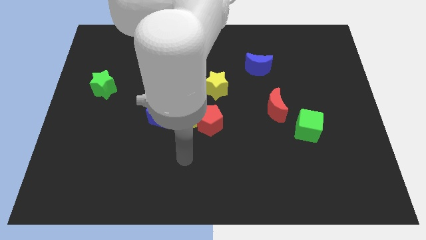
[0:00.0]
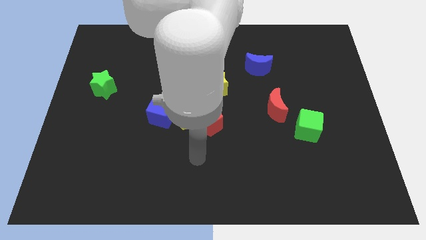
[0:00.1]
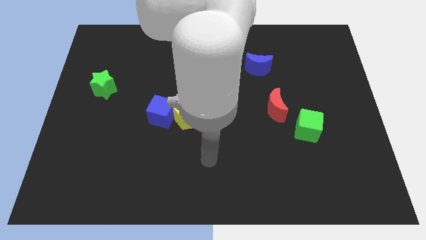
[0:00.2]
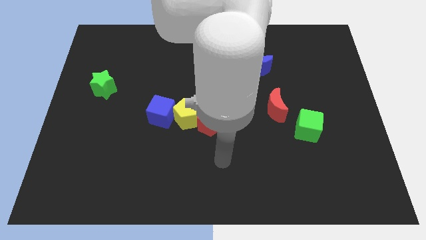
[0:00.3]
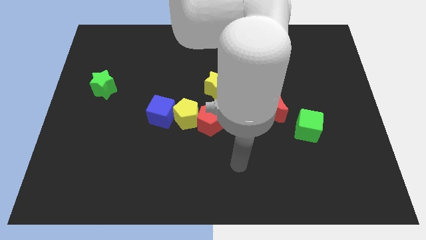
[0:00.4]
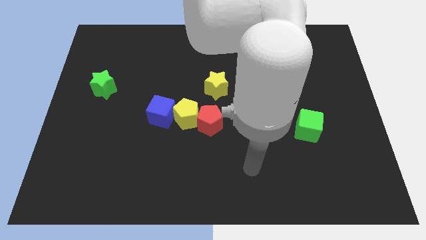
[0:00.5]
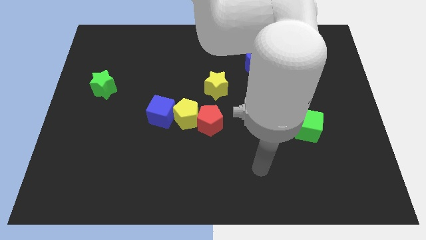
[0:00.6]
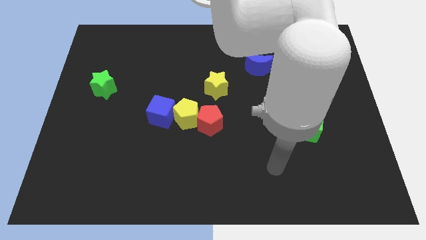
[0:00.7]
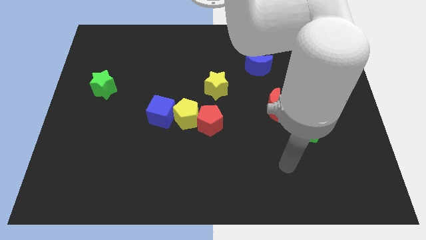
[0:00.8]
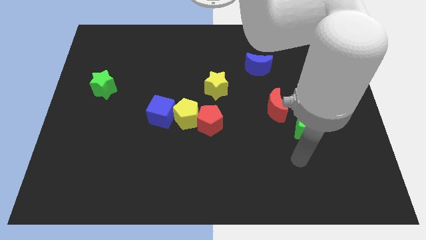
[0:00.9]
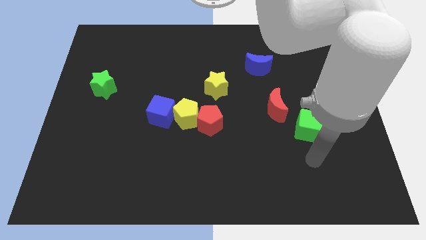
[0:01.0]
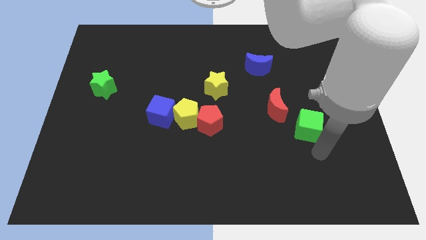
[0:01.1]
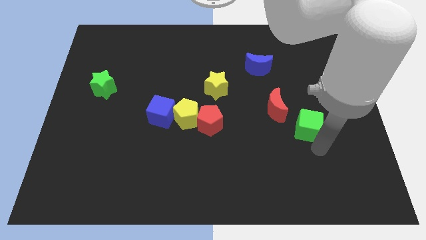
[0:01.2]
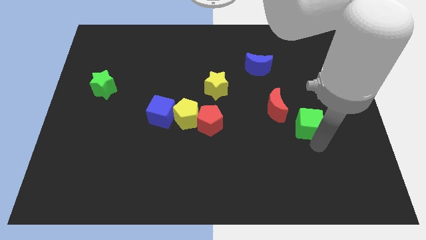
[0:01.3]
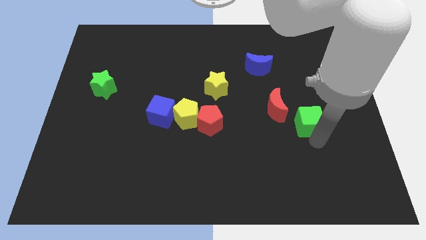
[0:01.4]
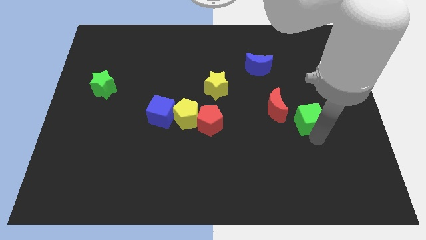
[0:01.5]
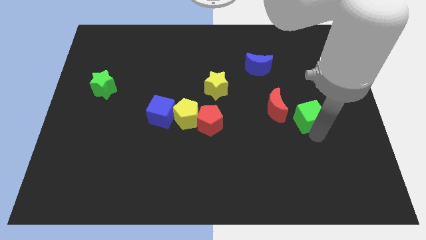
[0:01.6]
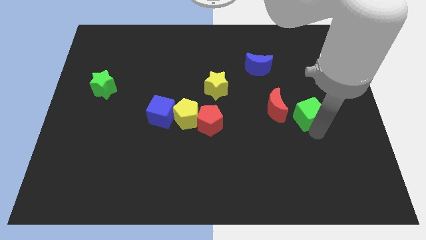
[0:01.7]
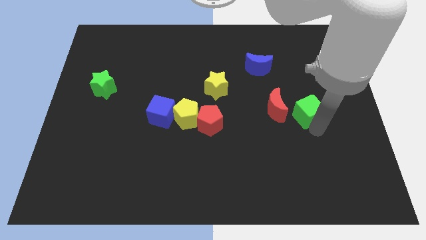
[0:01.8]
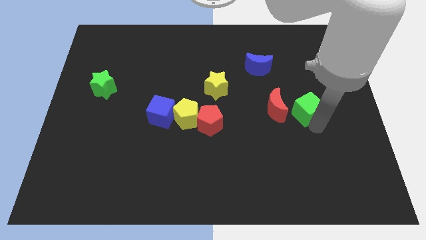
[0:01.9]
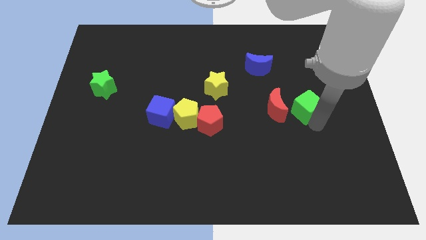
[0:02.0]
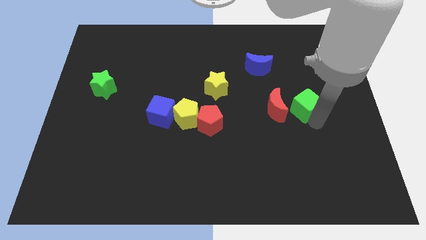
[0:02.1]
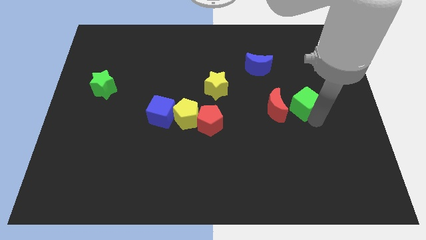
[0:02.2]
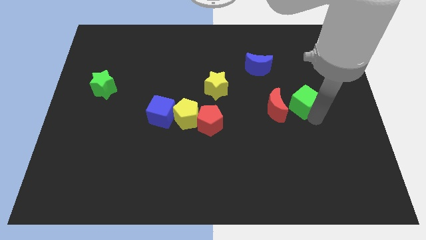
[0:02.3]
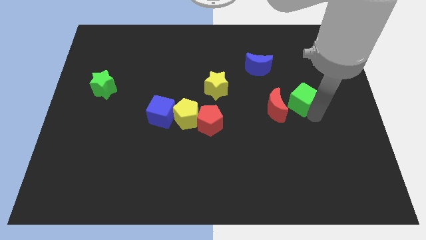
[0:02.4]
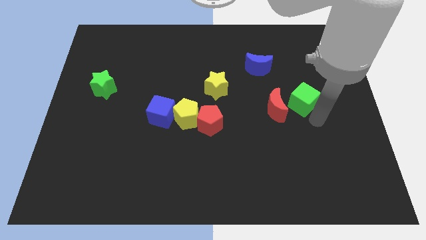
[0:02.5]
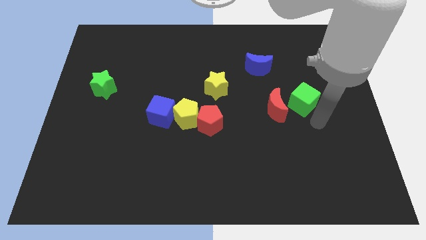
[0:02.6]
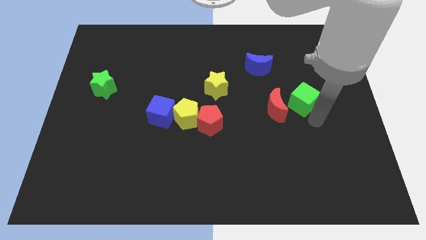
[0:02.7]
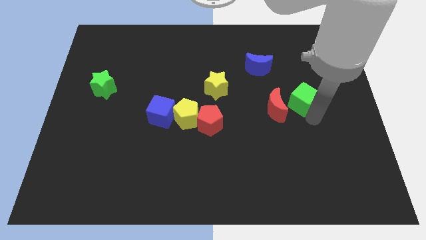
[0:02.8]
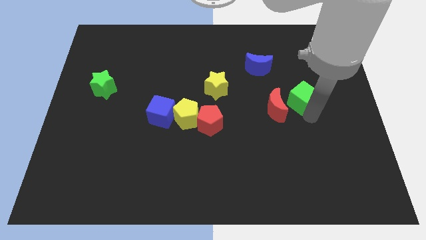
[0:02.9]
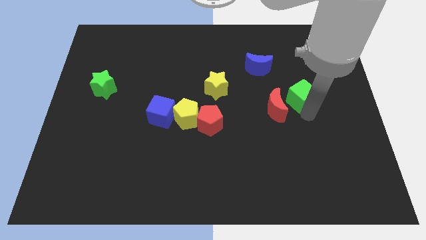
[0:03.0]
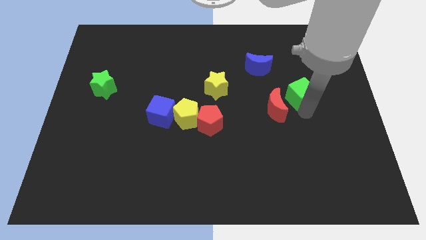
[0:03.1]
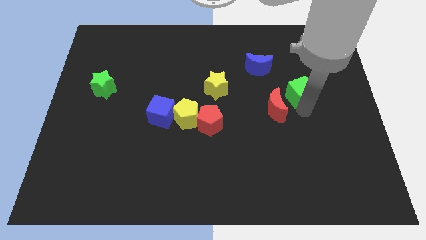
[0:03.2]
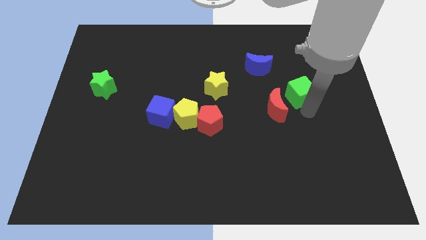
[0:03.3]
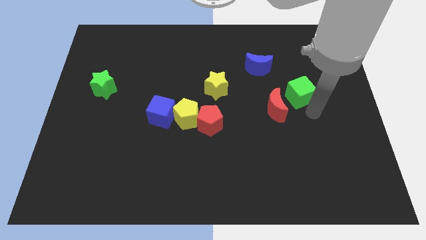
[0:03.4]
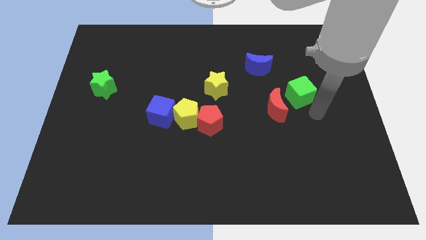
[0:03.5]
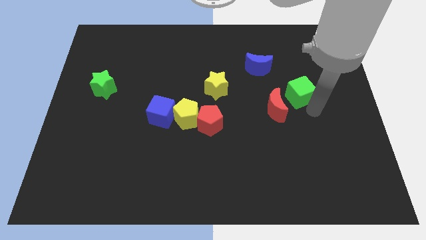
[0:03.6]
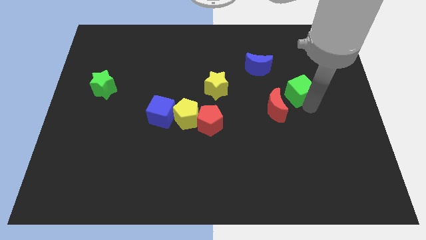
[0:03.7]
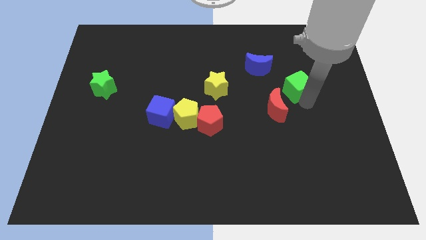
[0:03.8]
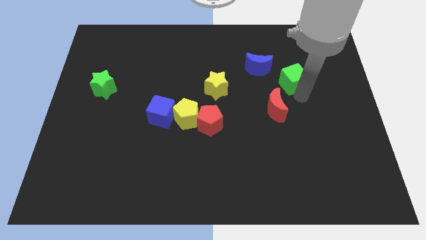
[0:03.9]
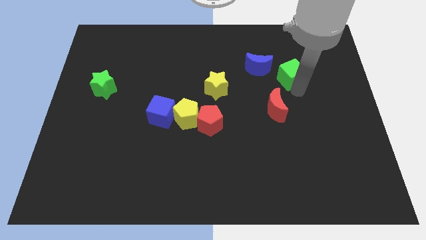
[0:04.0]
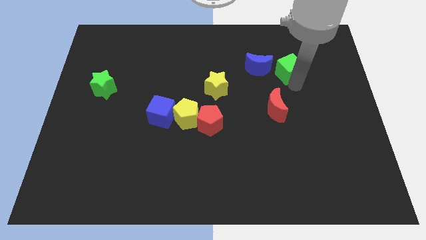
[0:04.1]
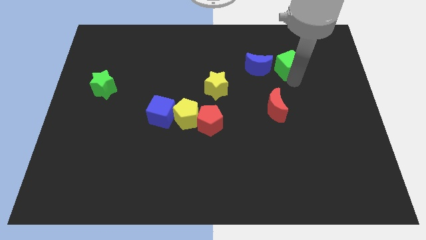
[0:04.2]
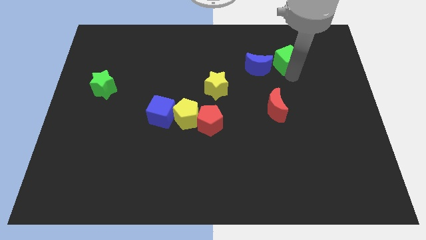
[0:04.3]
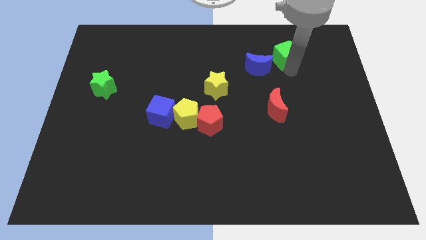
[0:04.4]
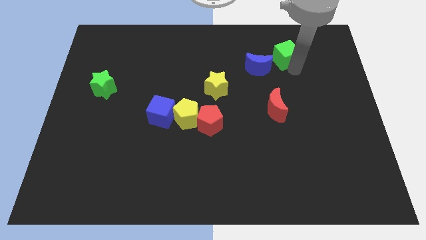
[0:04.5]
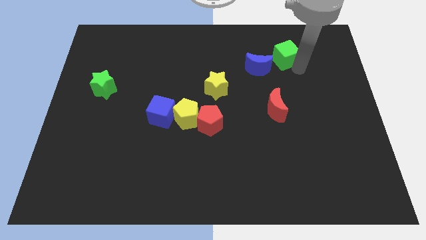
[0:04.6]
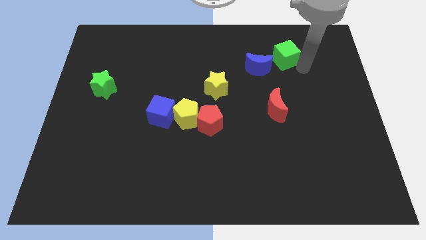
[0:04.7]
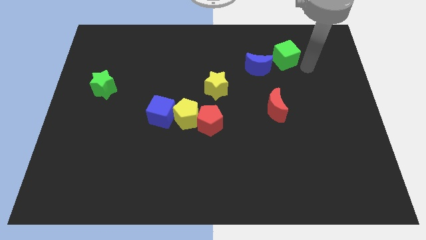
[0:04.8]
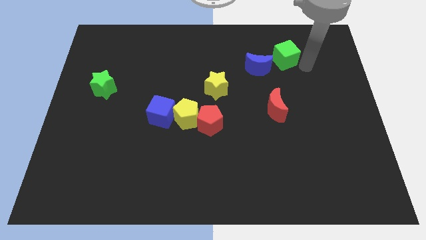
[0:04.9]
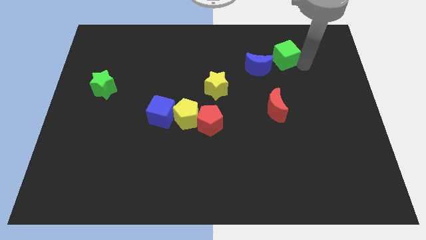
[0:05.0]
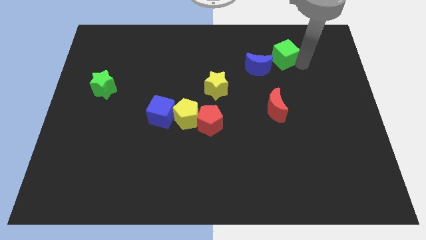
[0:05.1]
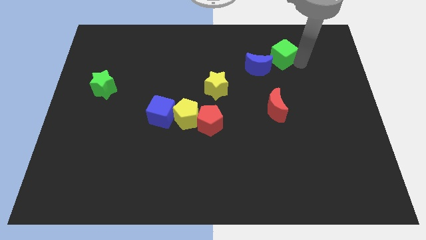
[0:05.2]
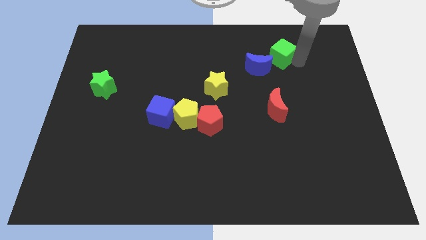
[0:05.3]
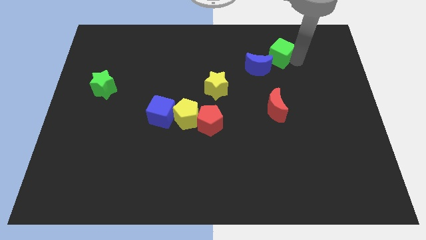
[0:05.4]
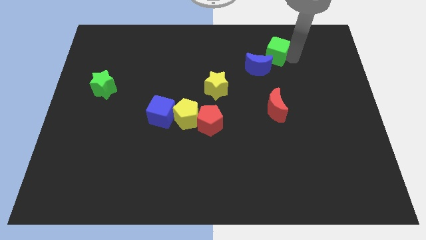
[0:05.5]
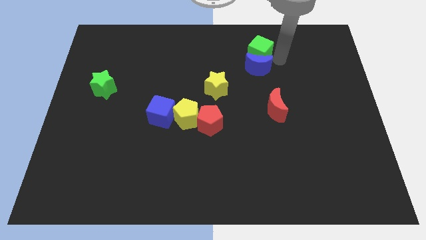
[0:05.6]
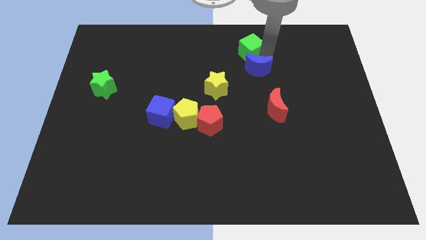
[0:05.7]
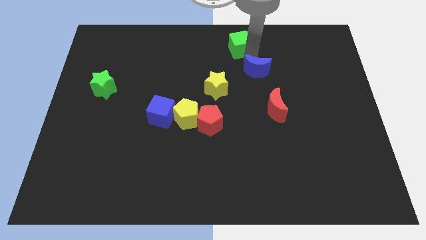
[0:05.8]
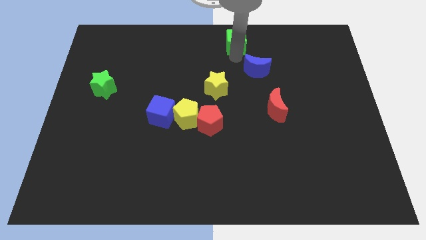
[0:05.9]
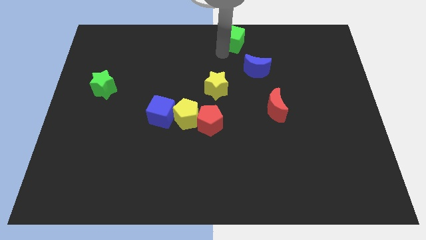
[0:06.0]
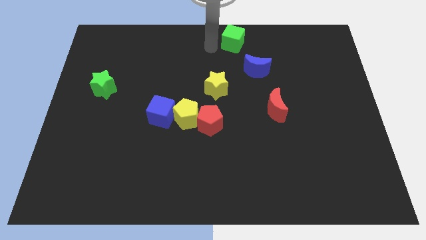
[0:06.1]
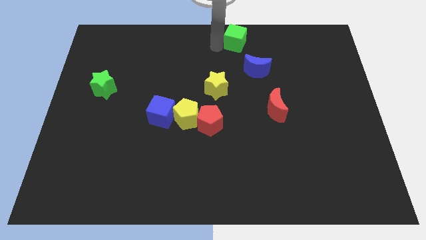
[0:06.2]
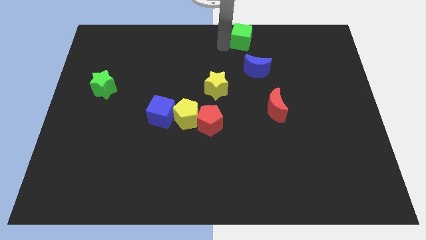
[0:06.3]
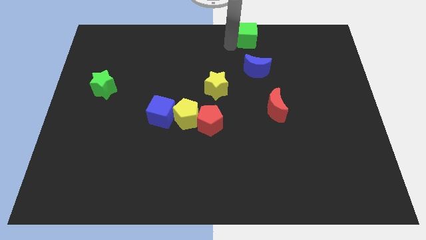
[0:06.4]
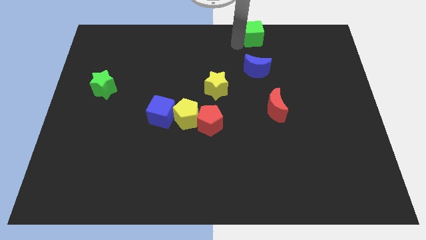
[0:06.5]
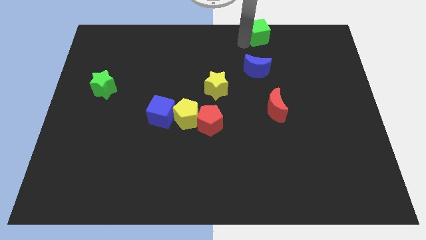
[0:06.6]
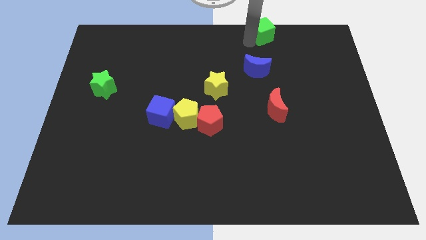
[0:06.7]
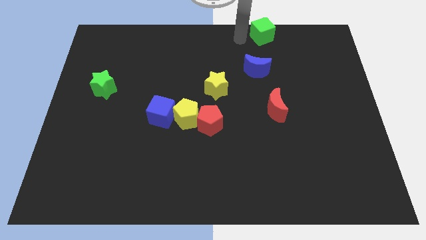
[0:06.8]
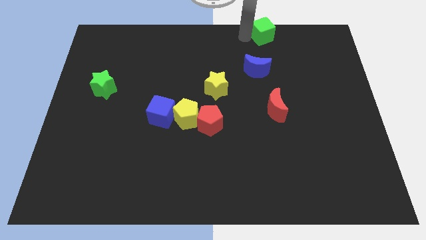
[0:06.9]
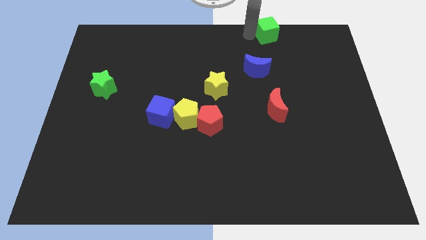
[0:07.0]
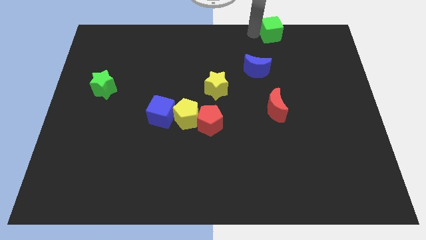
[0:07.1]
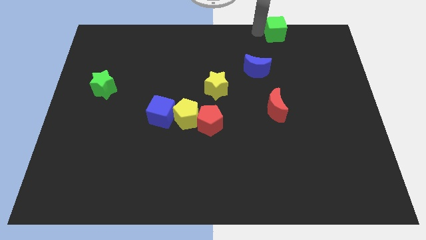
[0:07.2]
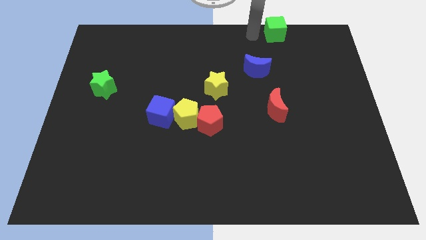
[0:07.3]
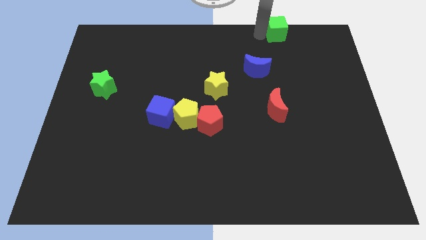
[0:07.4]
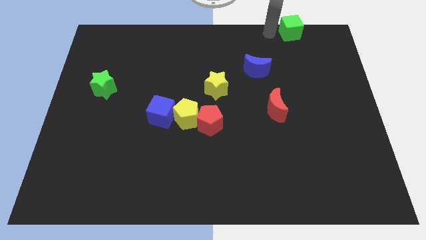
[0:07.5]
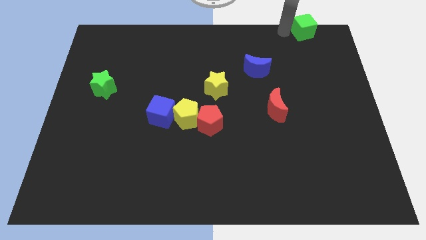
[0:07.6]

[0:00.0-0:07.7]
move the green cube to the top right of the board
